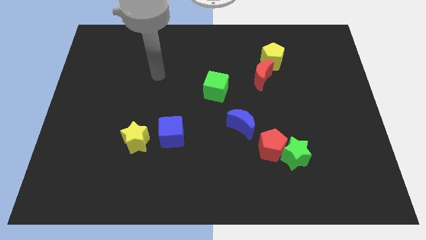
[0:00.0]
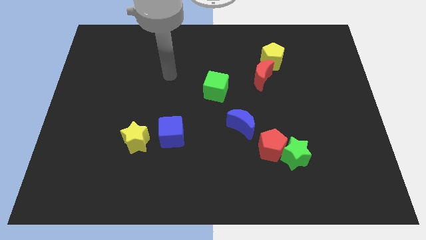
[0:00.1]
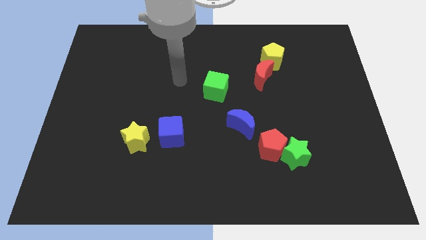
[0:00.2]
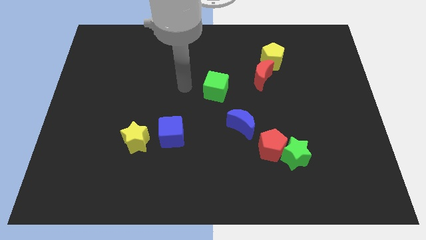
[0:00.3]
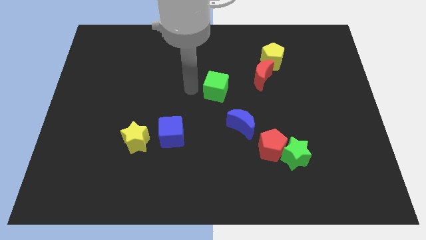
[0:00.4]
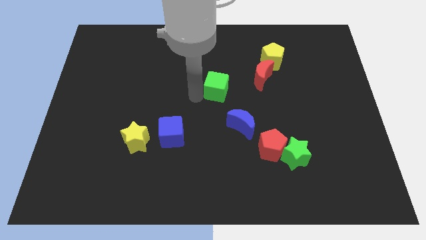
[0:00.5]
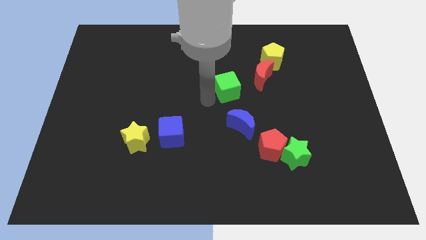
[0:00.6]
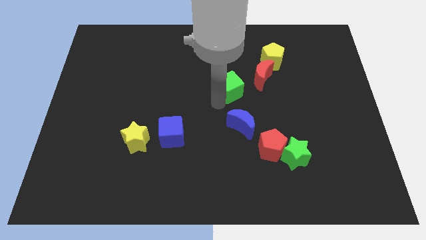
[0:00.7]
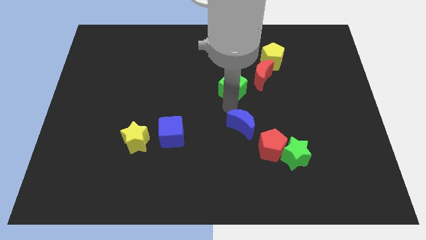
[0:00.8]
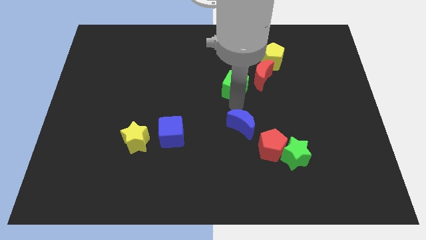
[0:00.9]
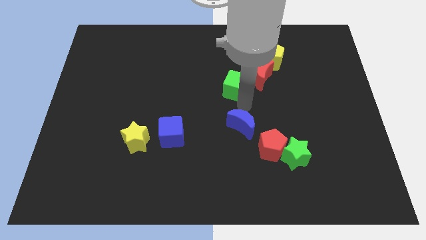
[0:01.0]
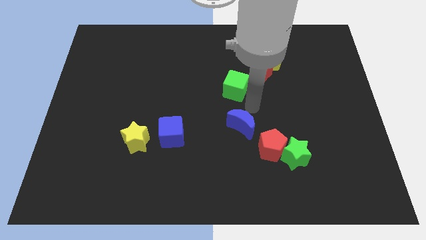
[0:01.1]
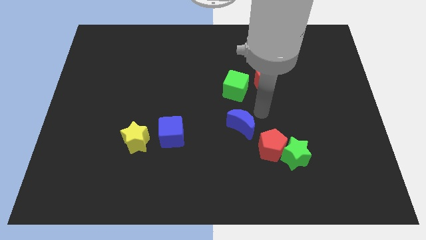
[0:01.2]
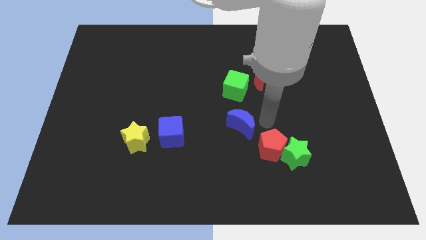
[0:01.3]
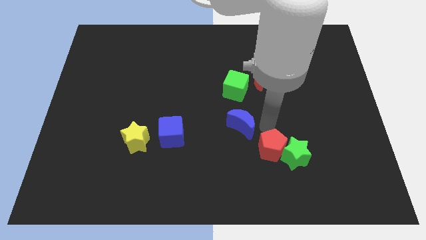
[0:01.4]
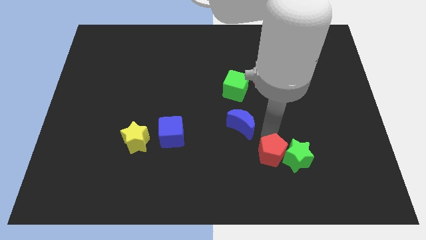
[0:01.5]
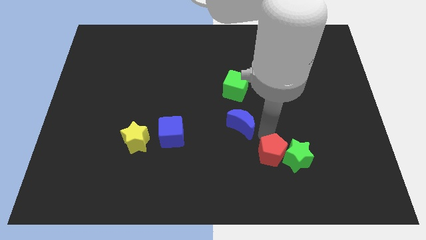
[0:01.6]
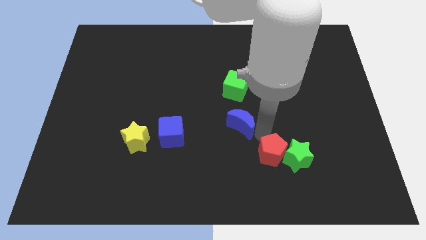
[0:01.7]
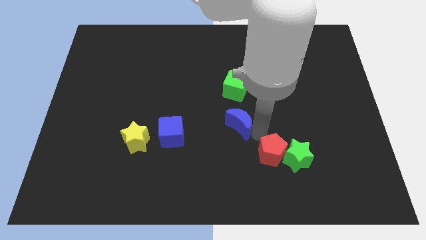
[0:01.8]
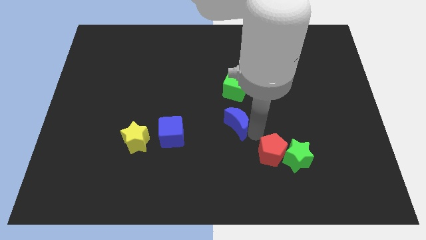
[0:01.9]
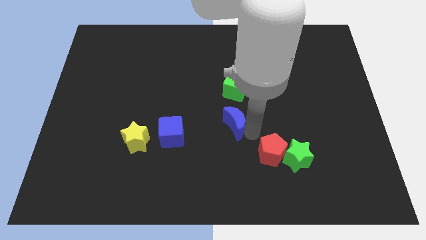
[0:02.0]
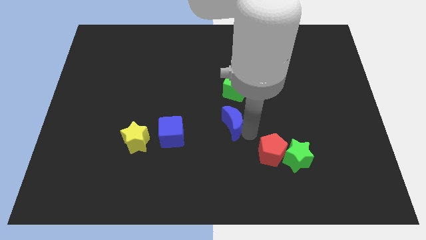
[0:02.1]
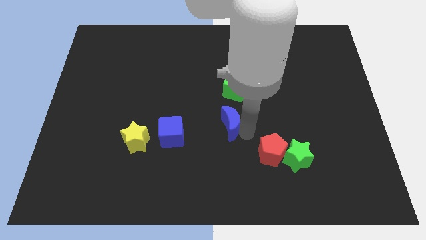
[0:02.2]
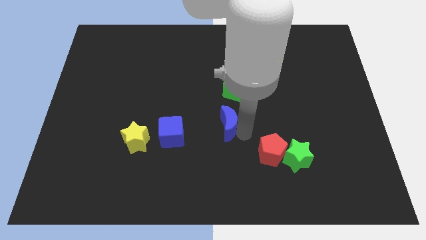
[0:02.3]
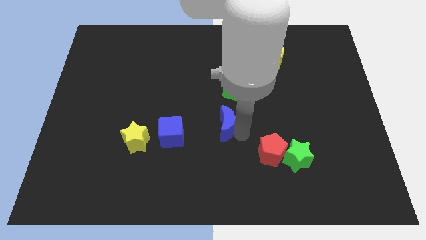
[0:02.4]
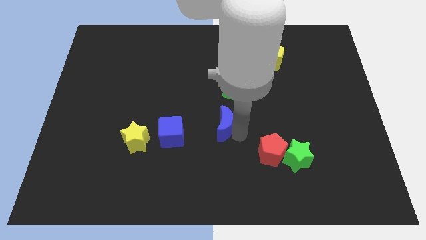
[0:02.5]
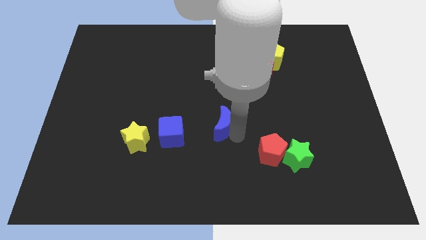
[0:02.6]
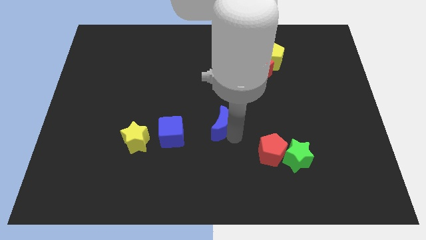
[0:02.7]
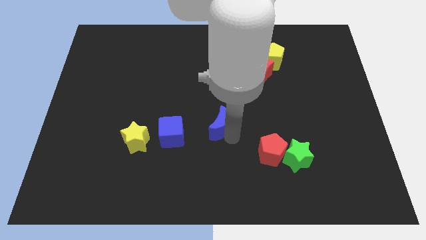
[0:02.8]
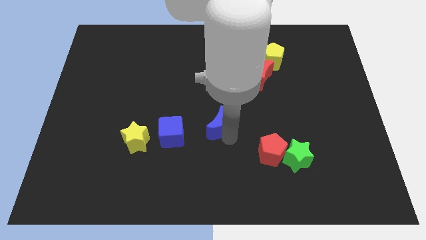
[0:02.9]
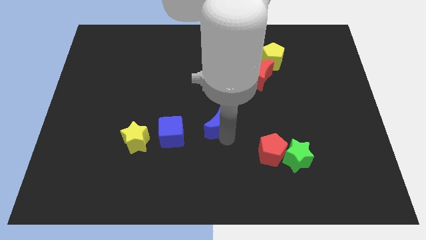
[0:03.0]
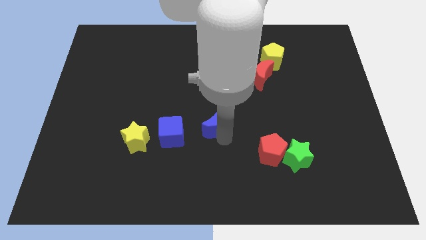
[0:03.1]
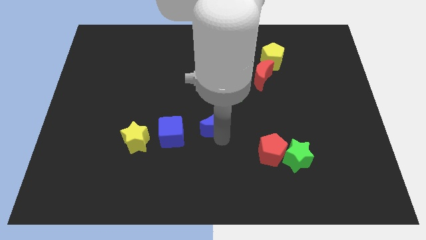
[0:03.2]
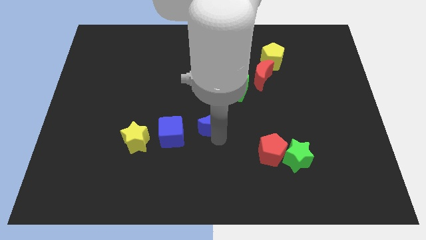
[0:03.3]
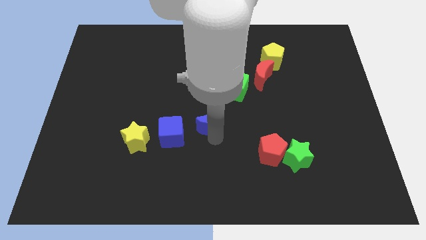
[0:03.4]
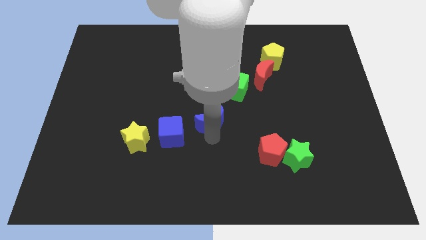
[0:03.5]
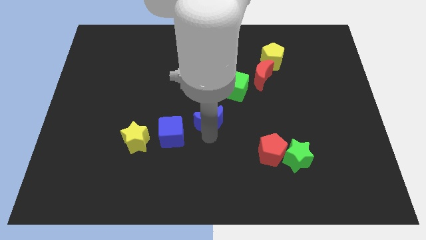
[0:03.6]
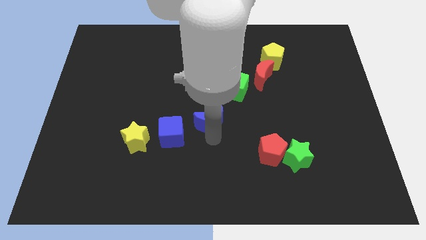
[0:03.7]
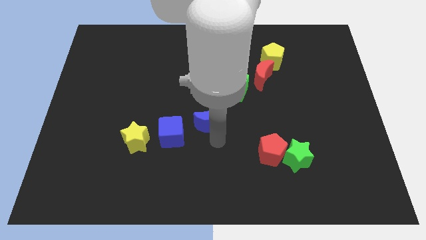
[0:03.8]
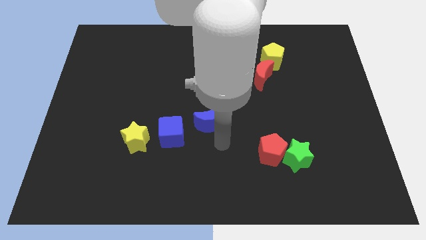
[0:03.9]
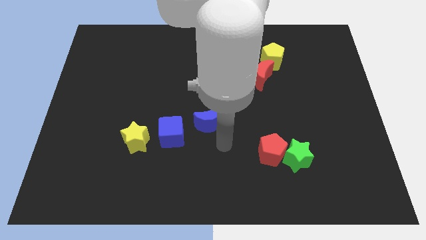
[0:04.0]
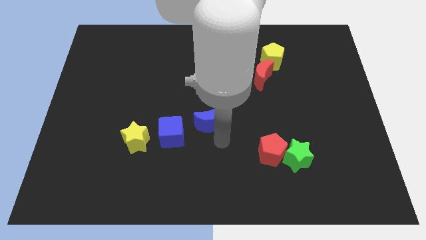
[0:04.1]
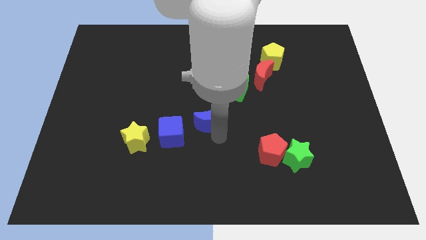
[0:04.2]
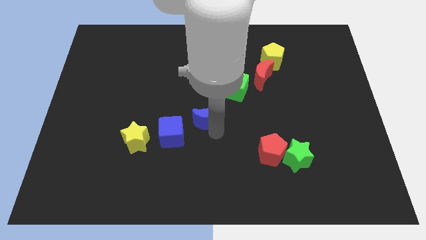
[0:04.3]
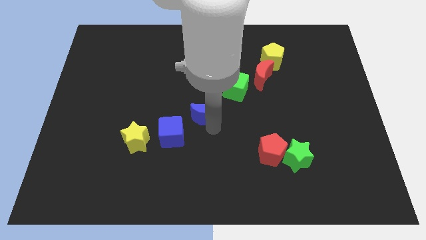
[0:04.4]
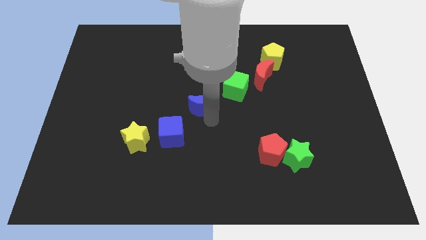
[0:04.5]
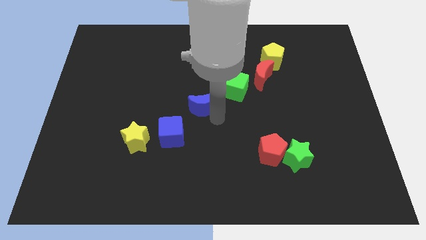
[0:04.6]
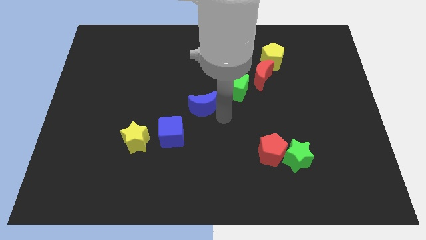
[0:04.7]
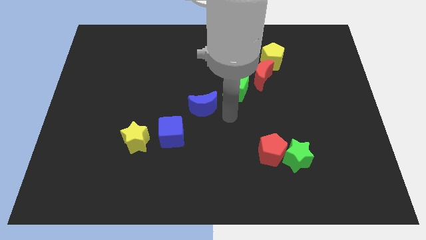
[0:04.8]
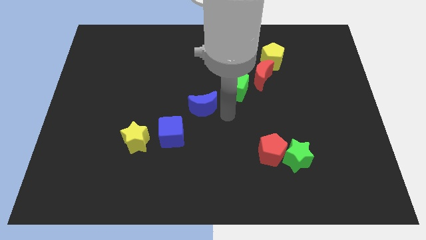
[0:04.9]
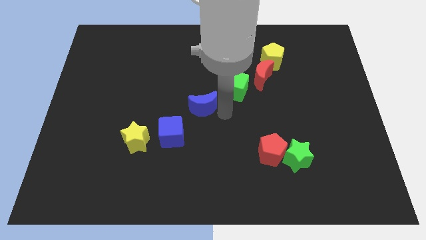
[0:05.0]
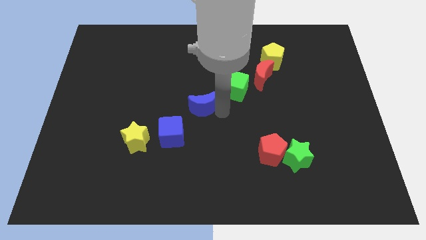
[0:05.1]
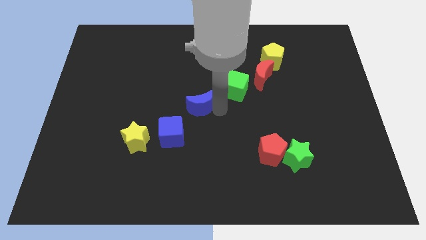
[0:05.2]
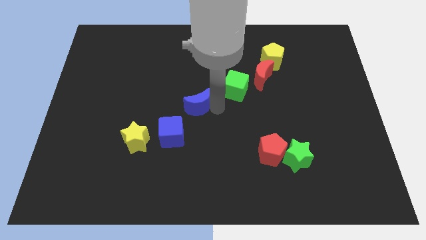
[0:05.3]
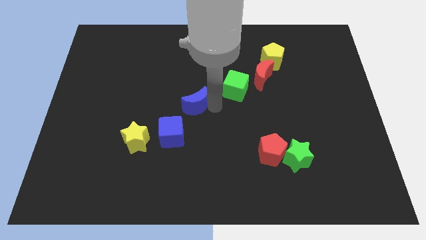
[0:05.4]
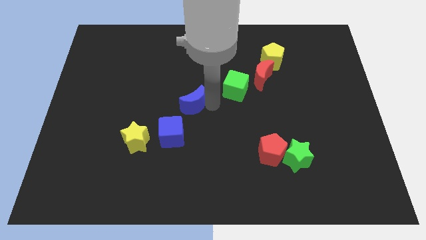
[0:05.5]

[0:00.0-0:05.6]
move the blue moon above the blue cube

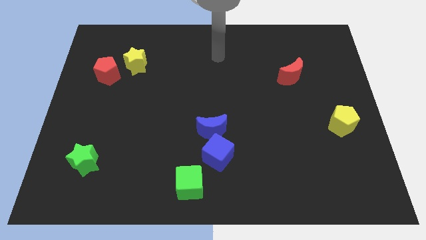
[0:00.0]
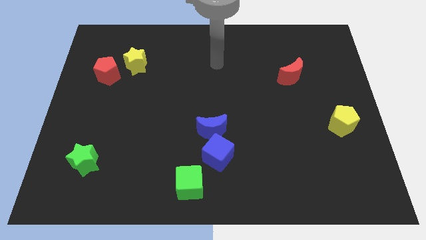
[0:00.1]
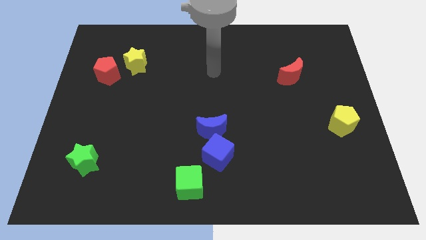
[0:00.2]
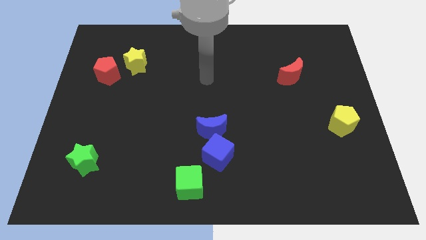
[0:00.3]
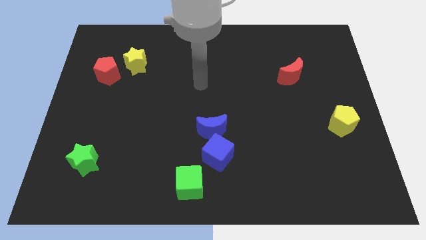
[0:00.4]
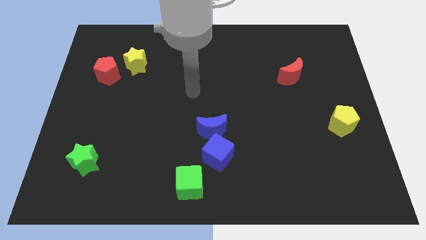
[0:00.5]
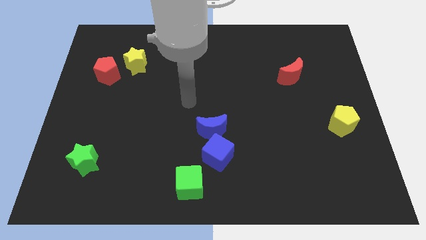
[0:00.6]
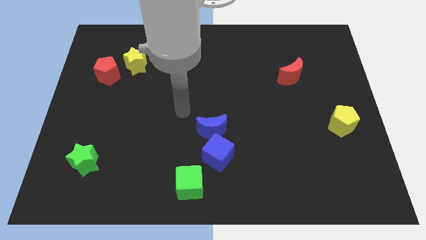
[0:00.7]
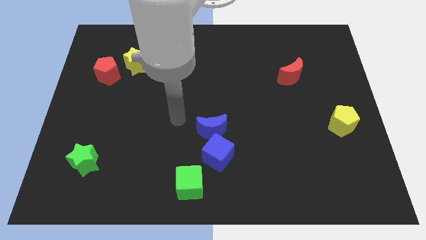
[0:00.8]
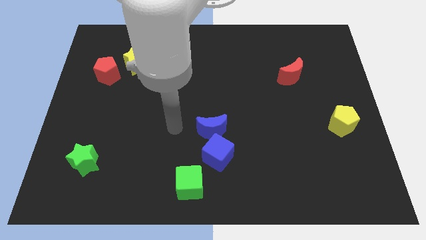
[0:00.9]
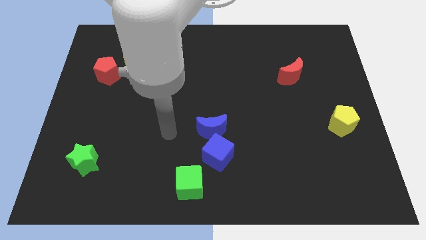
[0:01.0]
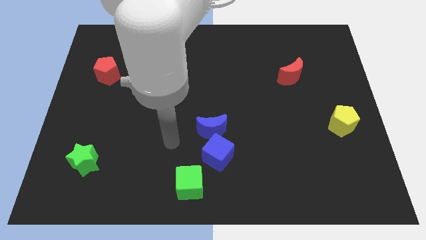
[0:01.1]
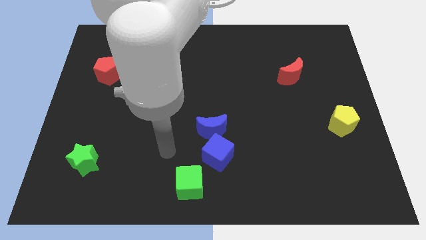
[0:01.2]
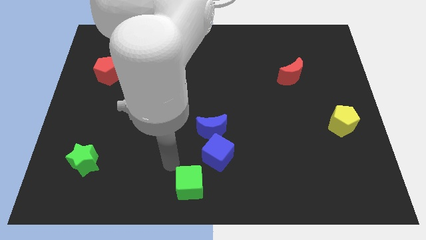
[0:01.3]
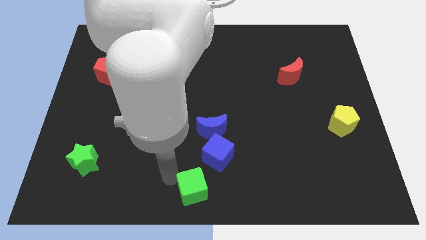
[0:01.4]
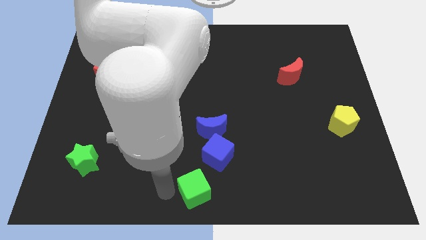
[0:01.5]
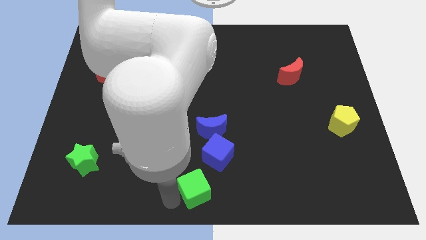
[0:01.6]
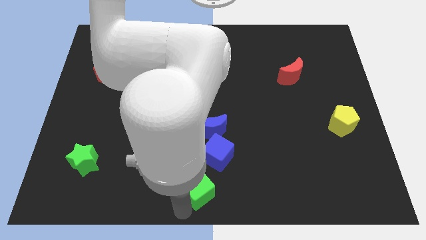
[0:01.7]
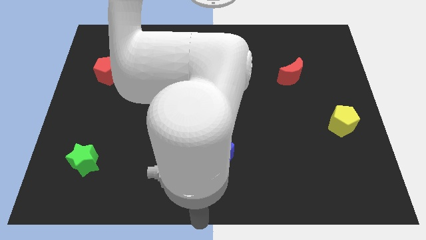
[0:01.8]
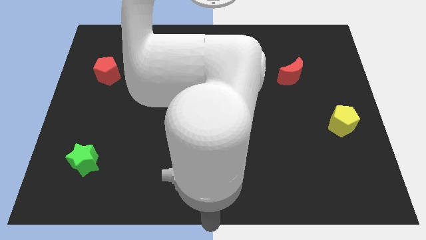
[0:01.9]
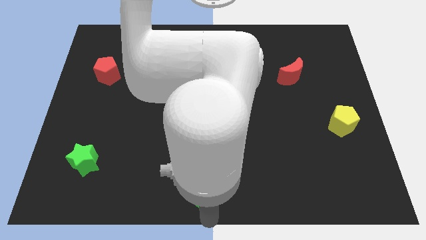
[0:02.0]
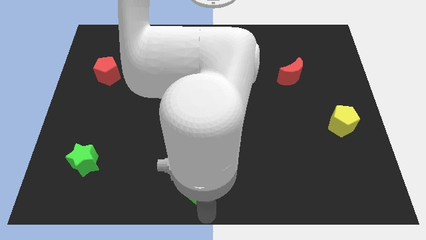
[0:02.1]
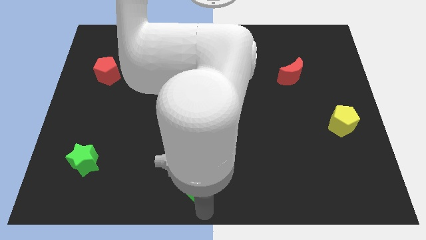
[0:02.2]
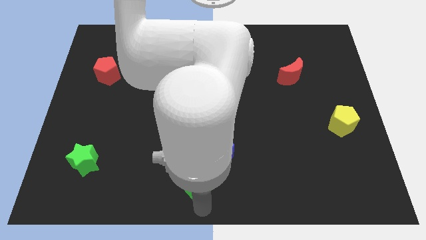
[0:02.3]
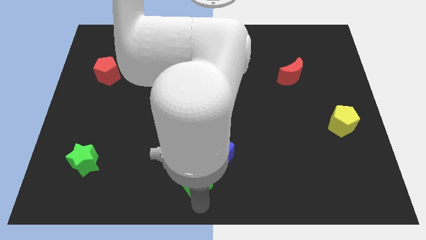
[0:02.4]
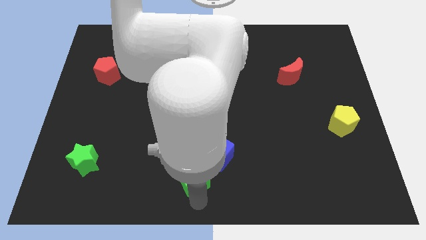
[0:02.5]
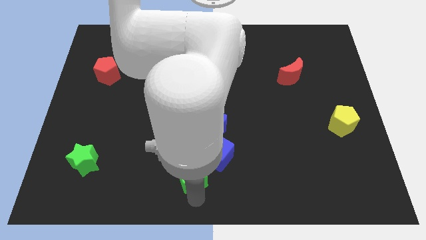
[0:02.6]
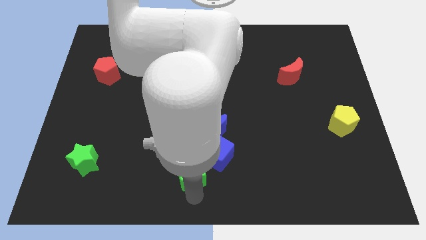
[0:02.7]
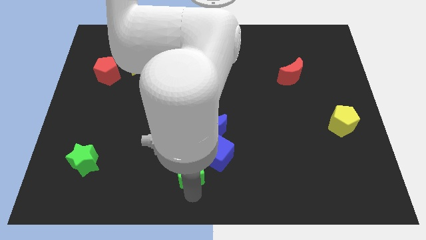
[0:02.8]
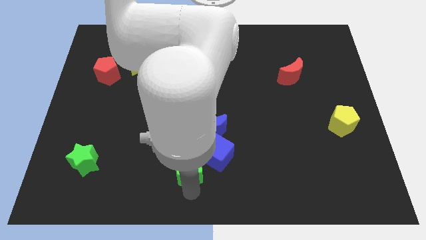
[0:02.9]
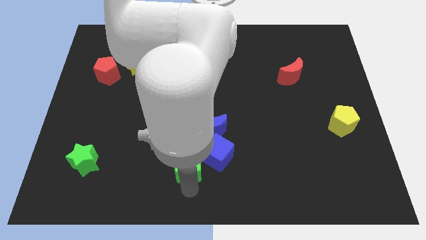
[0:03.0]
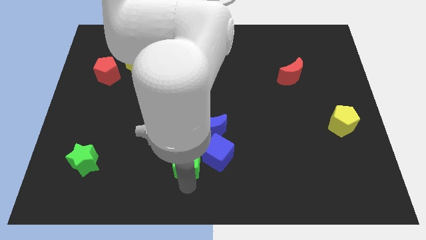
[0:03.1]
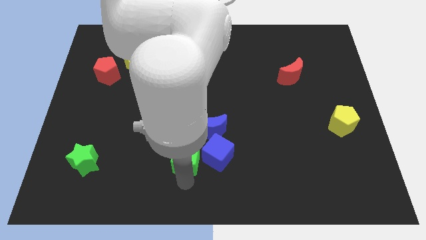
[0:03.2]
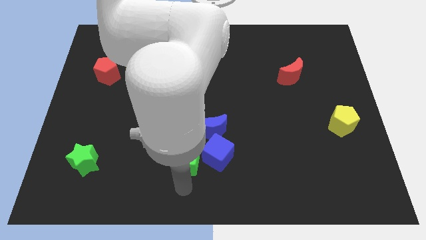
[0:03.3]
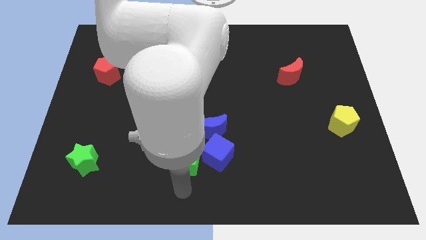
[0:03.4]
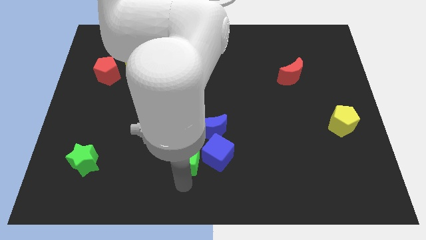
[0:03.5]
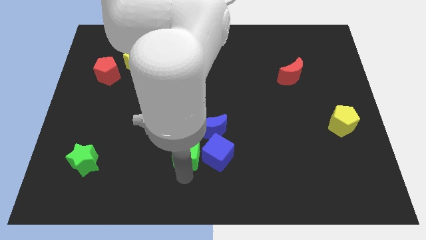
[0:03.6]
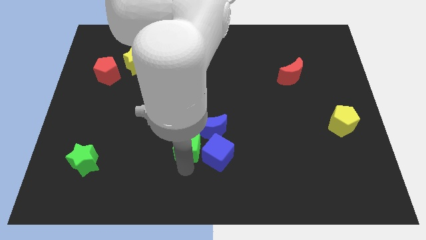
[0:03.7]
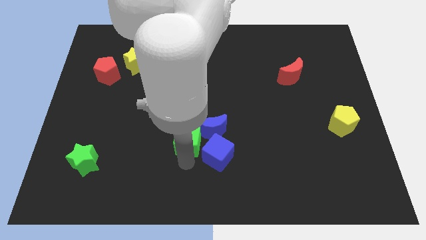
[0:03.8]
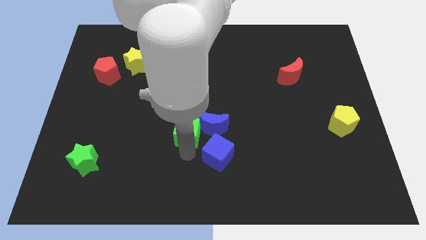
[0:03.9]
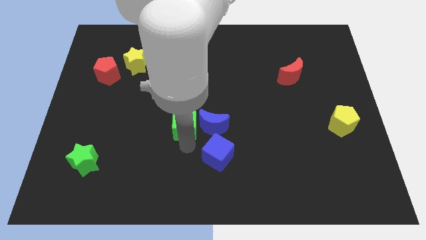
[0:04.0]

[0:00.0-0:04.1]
put the green cube to the top left side of the blue moon
